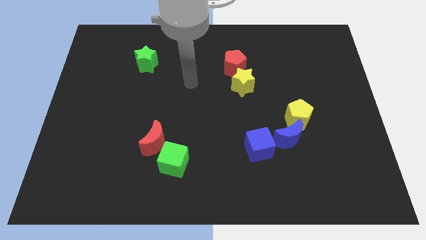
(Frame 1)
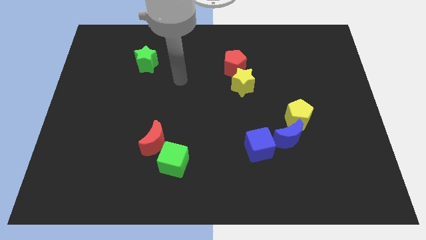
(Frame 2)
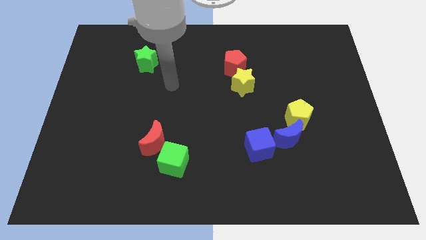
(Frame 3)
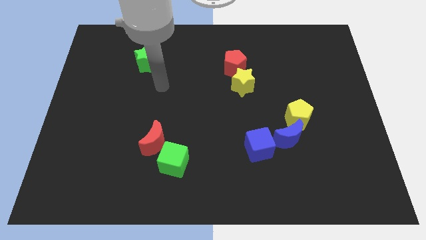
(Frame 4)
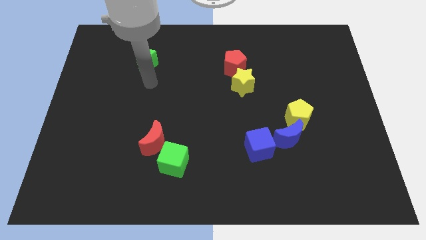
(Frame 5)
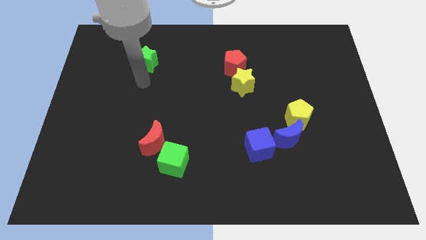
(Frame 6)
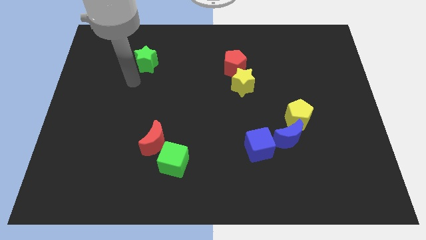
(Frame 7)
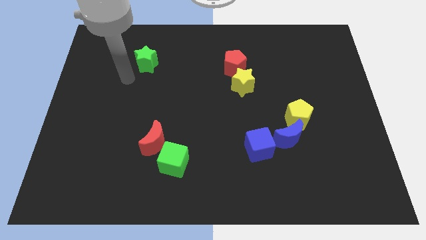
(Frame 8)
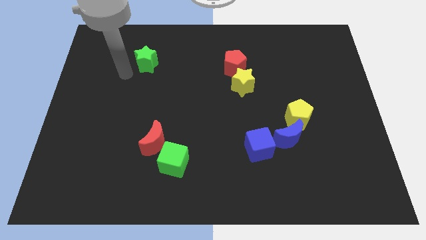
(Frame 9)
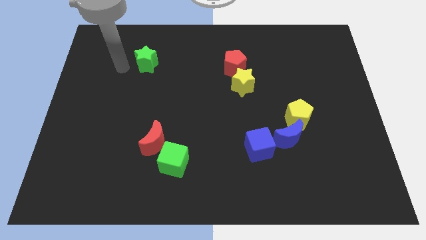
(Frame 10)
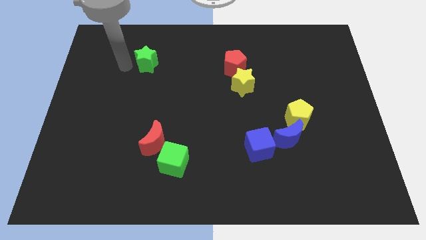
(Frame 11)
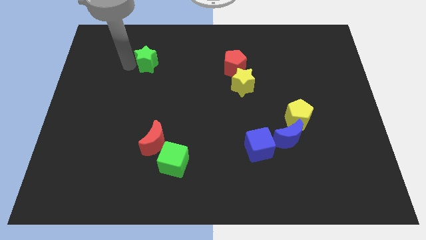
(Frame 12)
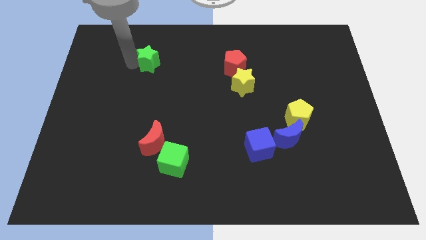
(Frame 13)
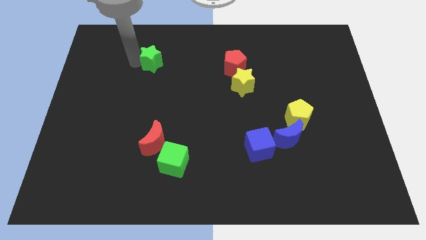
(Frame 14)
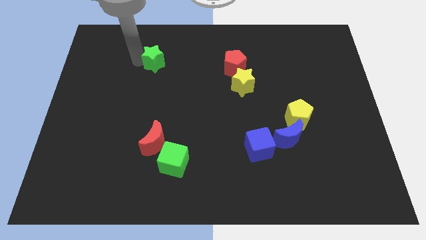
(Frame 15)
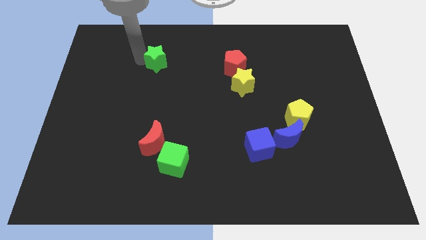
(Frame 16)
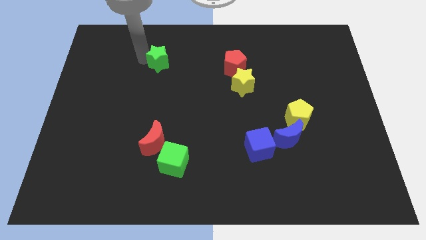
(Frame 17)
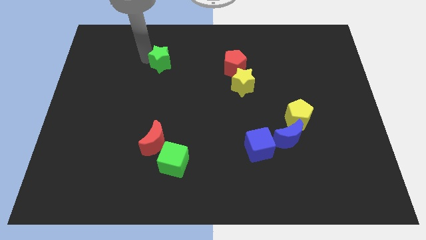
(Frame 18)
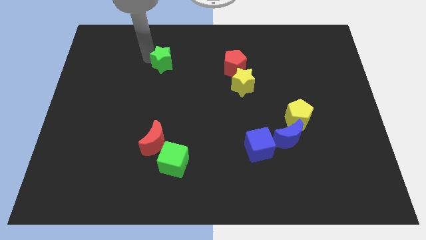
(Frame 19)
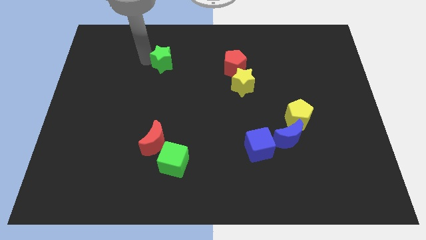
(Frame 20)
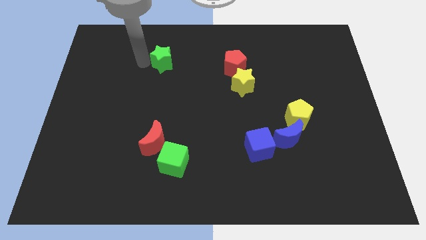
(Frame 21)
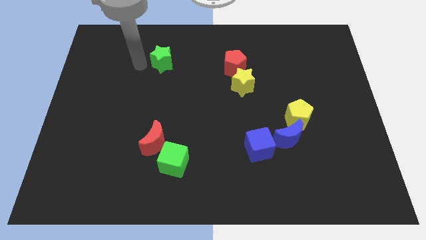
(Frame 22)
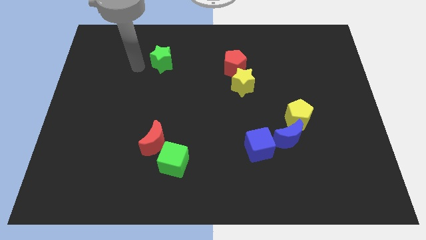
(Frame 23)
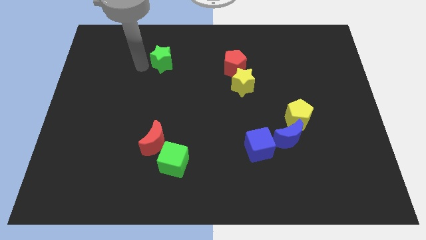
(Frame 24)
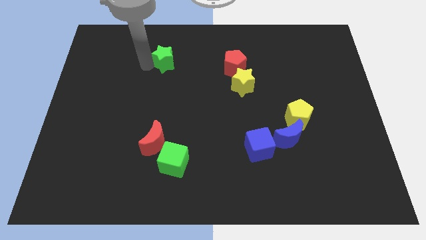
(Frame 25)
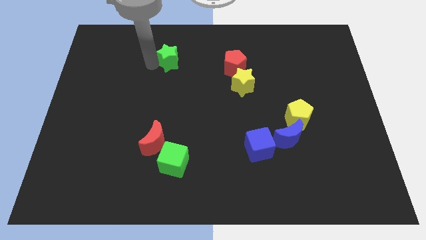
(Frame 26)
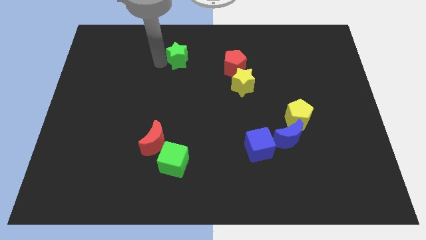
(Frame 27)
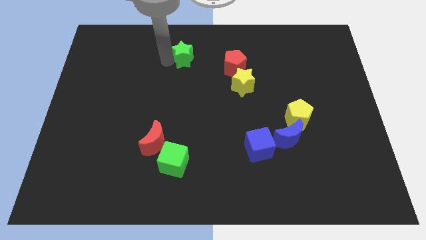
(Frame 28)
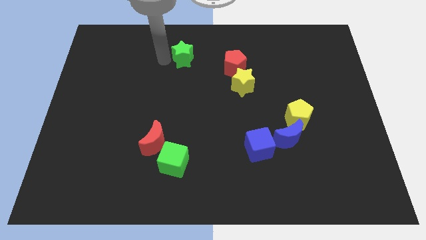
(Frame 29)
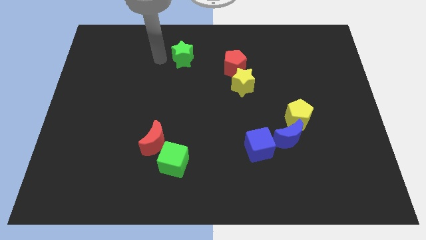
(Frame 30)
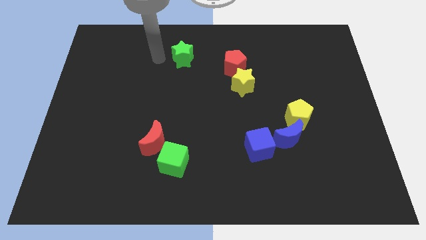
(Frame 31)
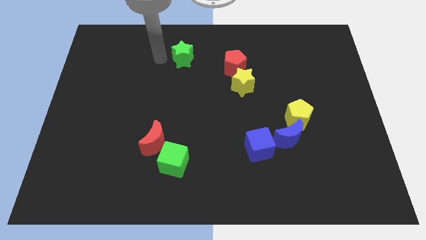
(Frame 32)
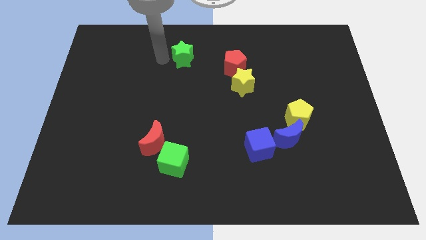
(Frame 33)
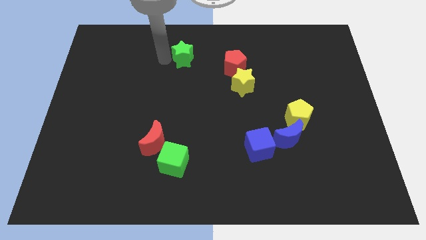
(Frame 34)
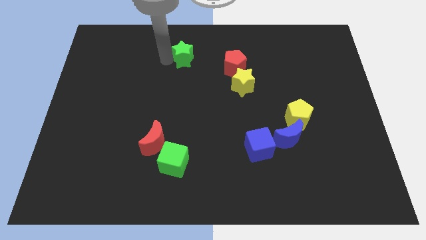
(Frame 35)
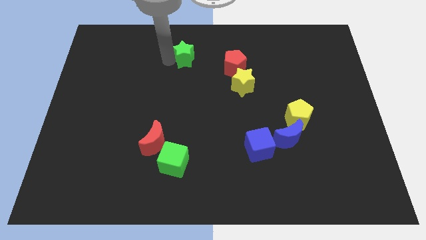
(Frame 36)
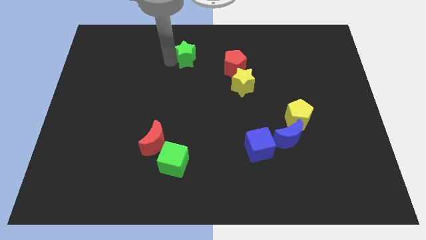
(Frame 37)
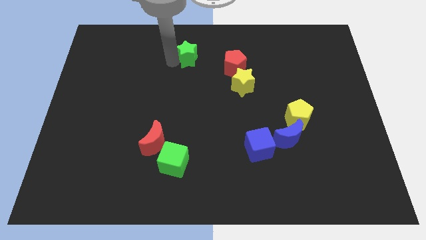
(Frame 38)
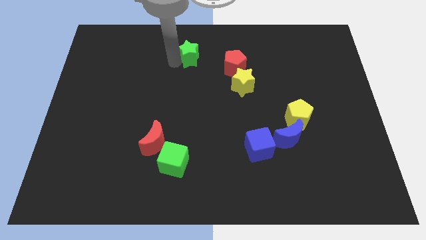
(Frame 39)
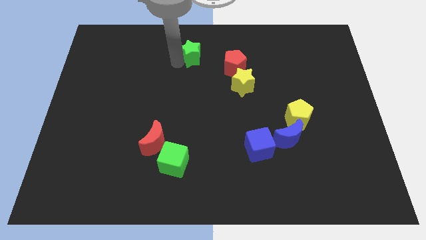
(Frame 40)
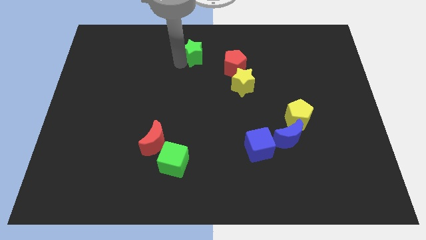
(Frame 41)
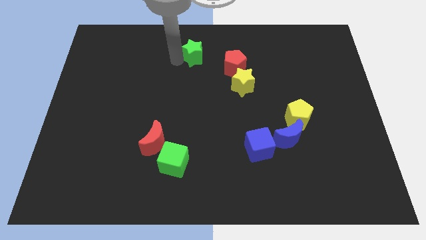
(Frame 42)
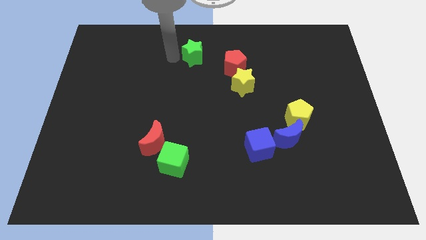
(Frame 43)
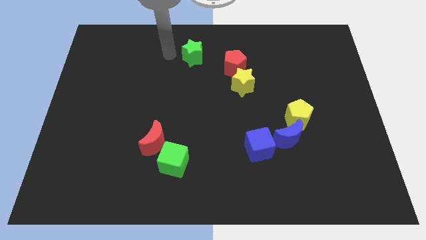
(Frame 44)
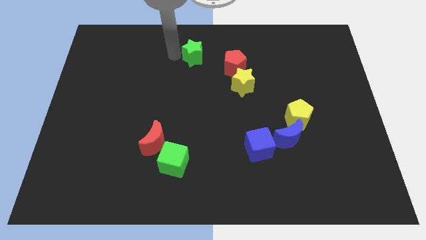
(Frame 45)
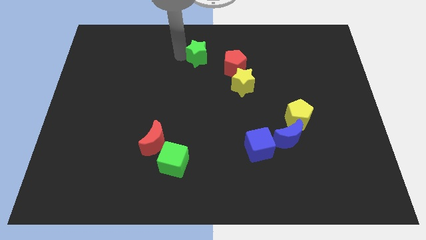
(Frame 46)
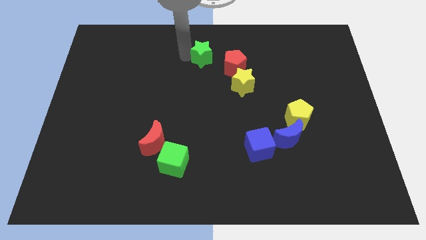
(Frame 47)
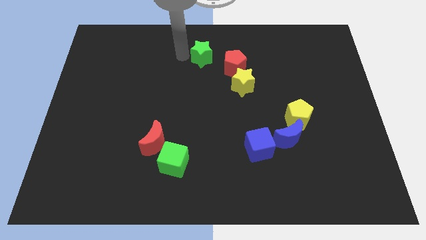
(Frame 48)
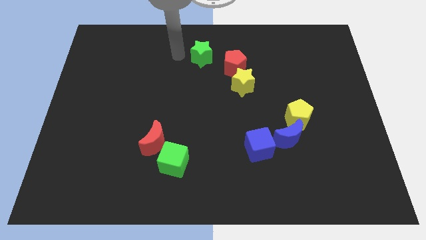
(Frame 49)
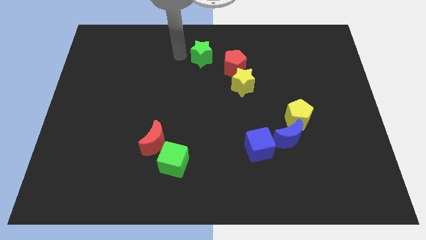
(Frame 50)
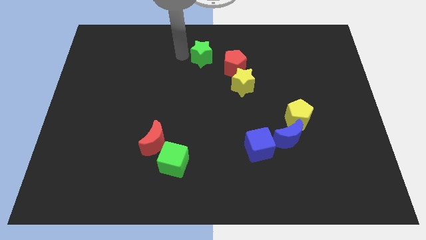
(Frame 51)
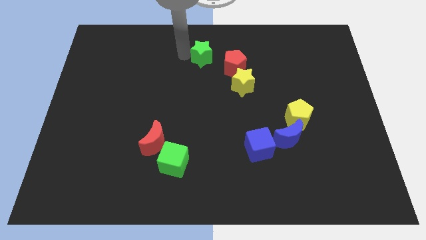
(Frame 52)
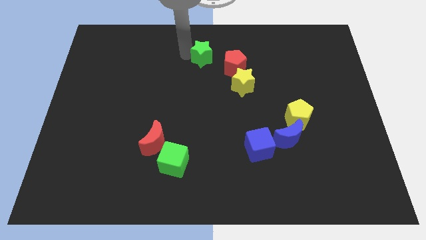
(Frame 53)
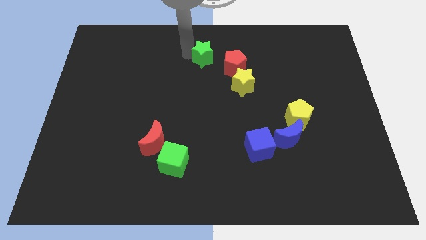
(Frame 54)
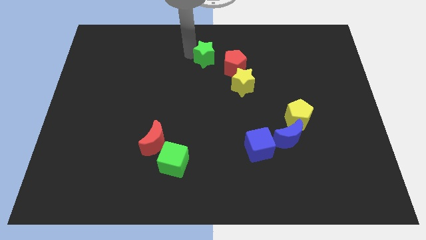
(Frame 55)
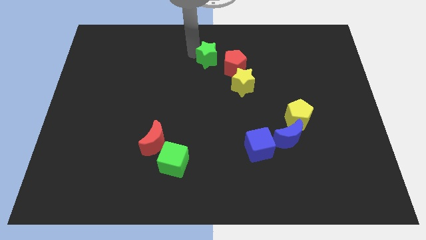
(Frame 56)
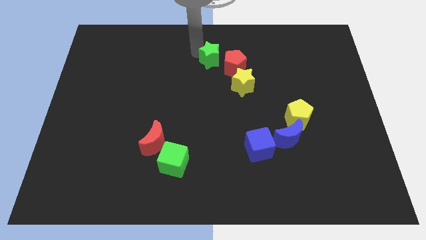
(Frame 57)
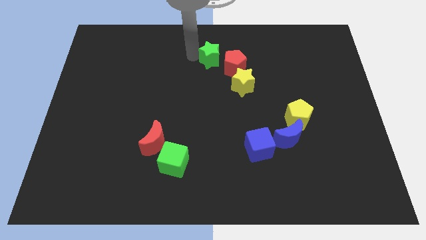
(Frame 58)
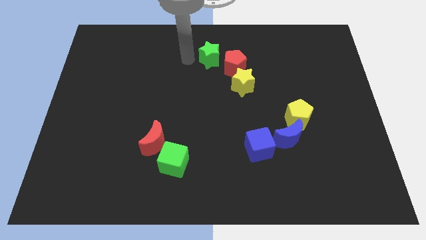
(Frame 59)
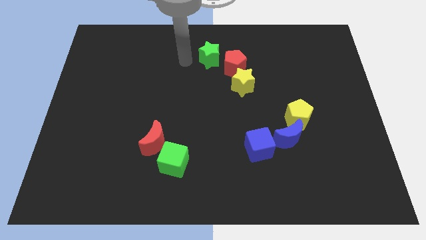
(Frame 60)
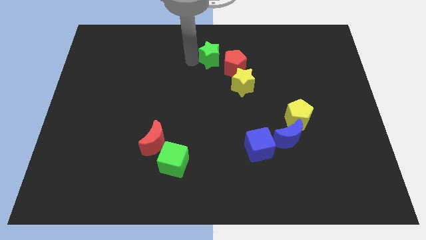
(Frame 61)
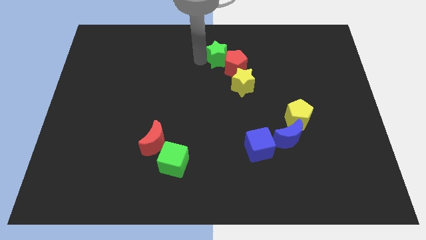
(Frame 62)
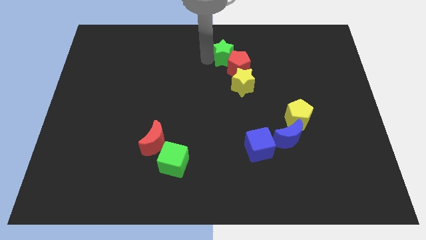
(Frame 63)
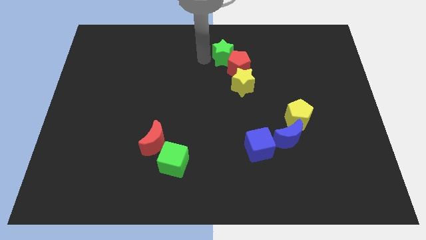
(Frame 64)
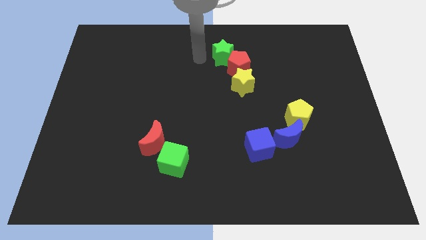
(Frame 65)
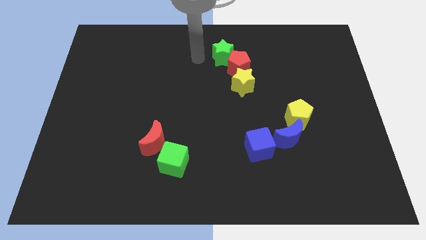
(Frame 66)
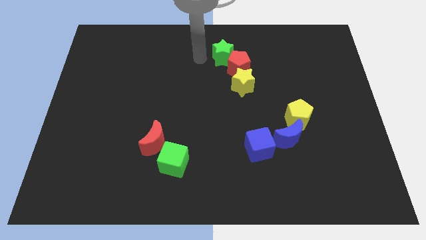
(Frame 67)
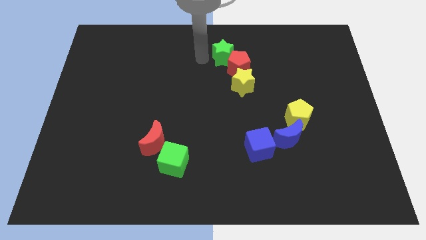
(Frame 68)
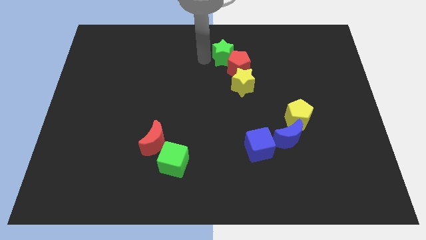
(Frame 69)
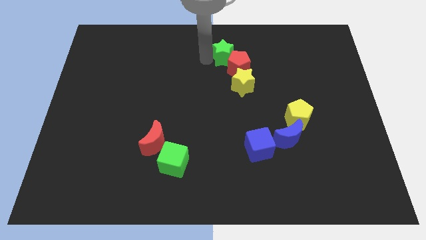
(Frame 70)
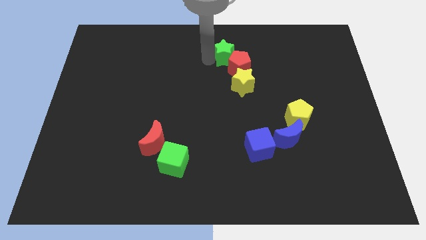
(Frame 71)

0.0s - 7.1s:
push the green star right

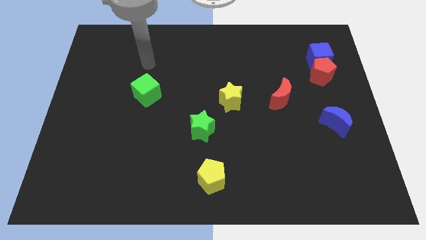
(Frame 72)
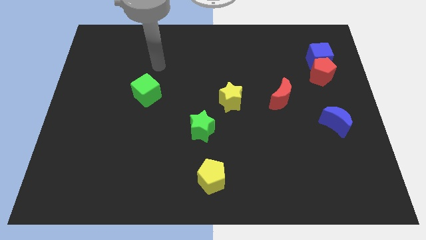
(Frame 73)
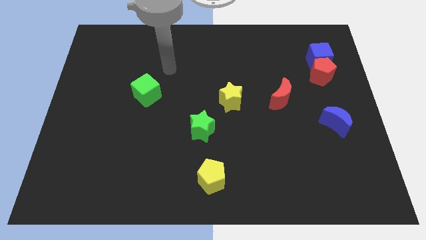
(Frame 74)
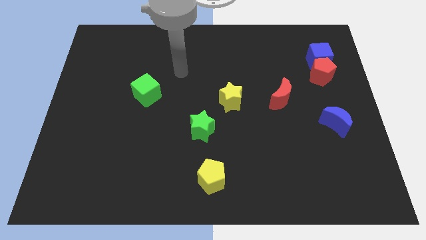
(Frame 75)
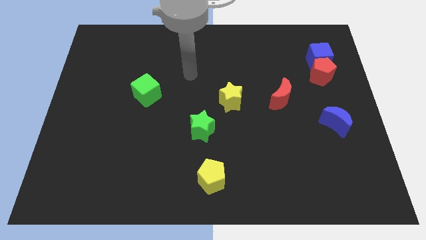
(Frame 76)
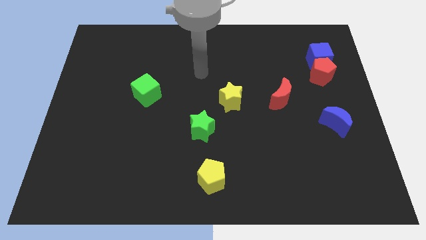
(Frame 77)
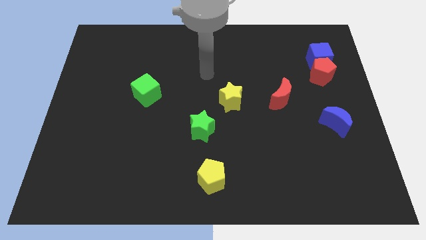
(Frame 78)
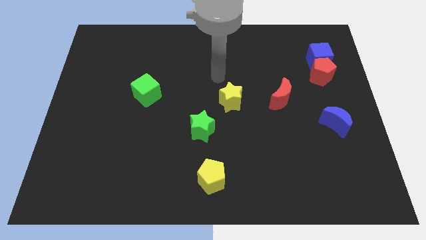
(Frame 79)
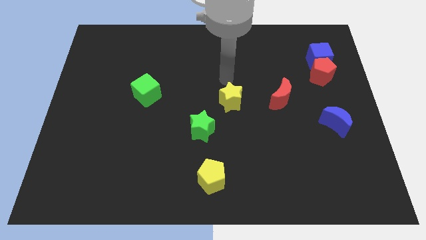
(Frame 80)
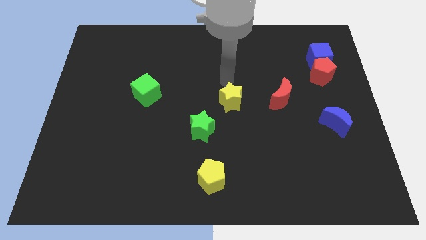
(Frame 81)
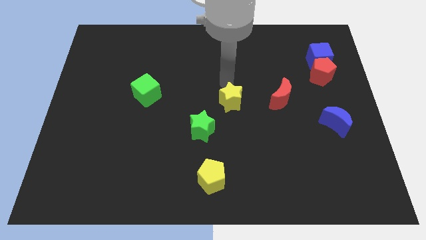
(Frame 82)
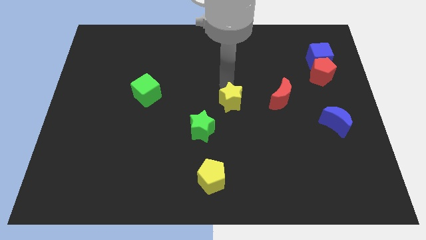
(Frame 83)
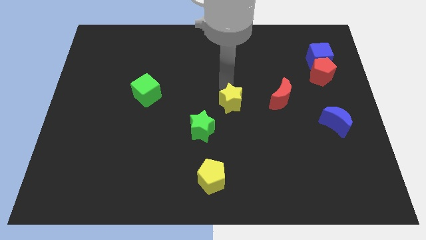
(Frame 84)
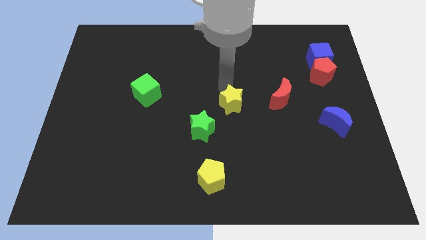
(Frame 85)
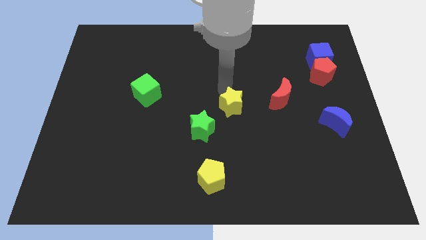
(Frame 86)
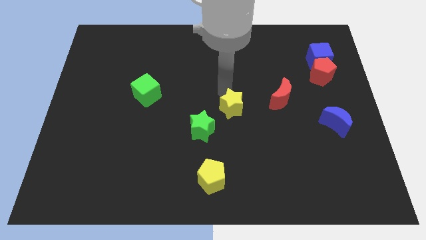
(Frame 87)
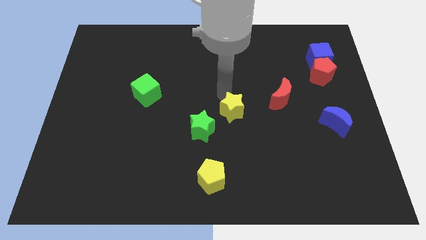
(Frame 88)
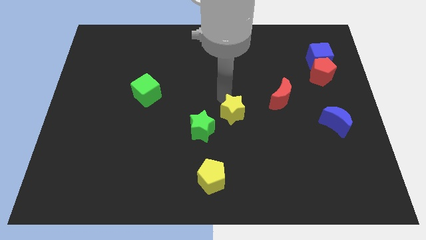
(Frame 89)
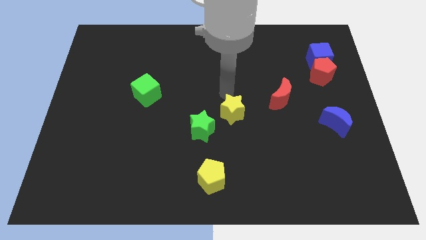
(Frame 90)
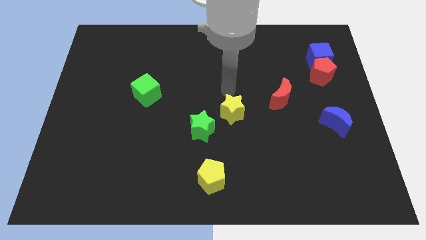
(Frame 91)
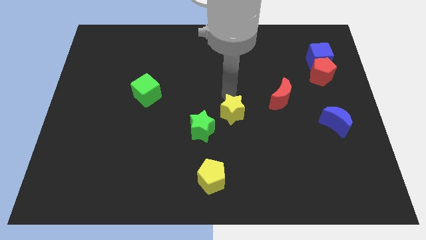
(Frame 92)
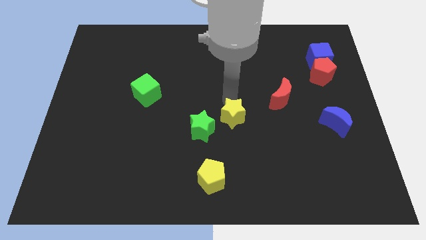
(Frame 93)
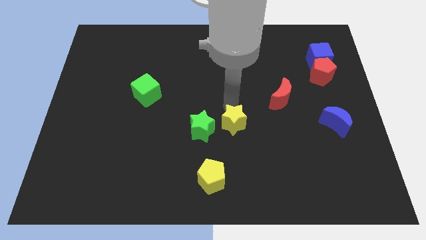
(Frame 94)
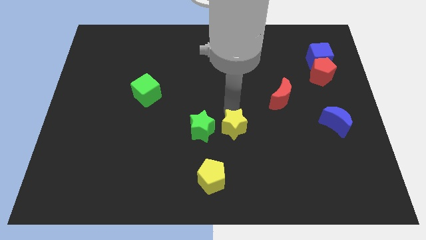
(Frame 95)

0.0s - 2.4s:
slightly move the yellow star down
